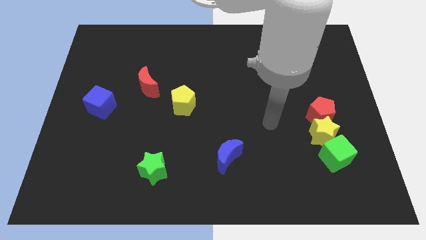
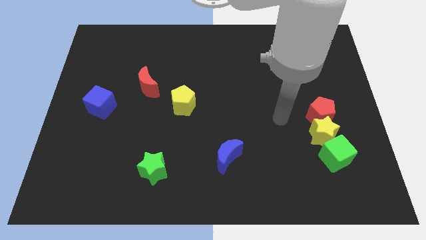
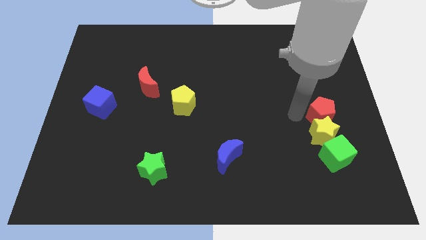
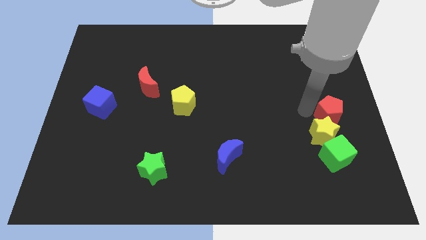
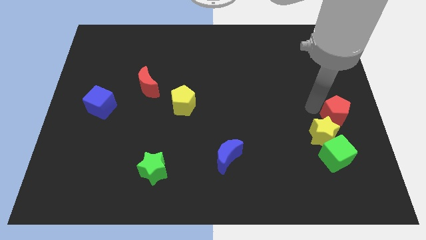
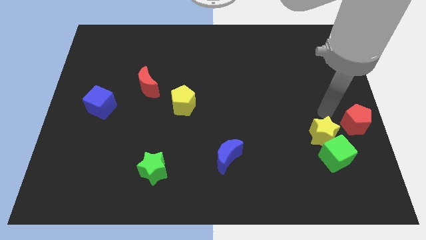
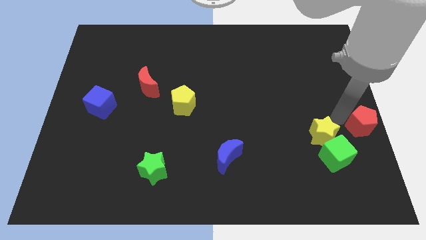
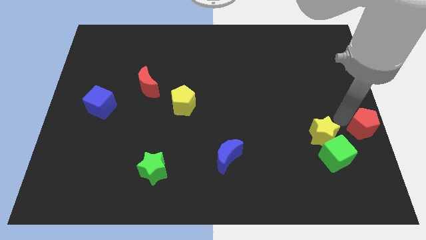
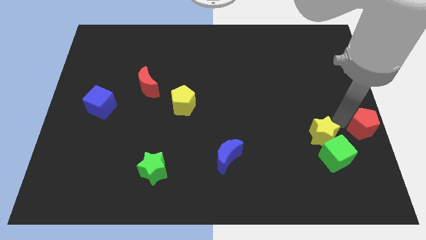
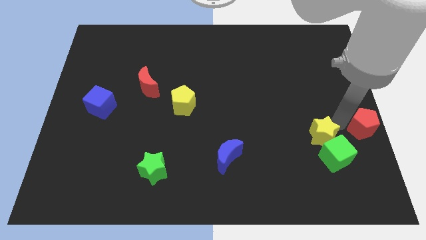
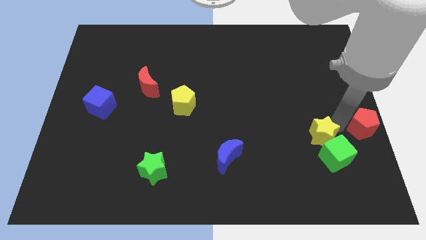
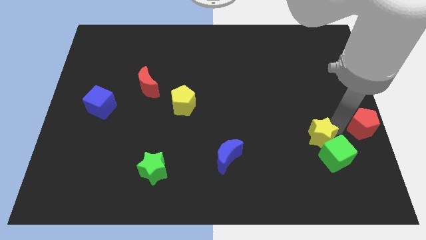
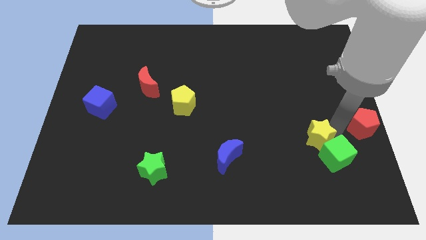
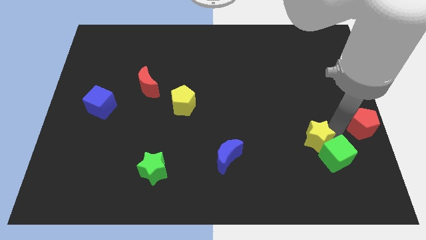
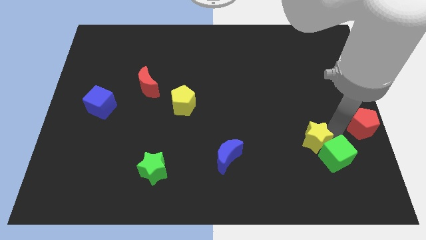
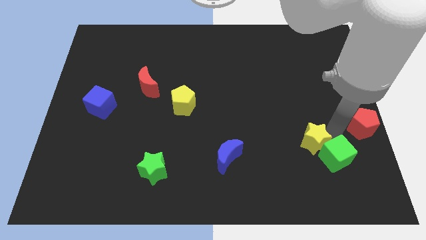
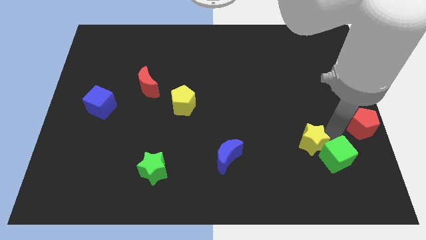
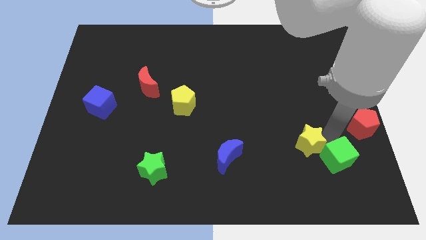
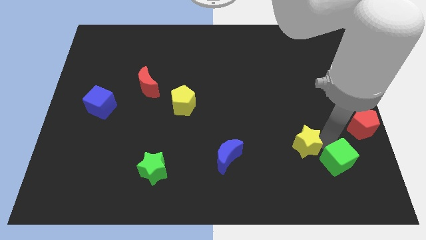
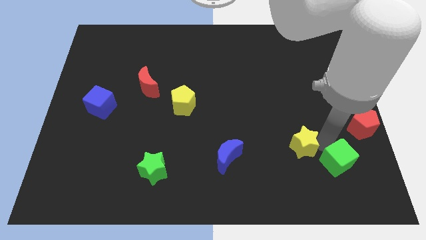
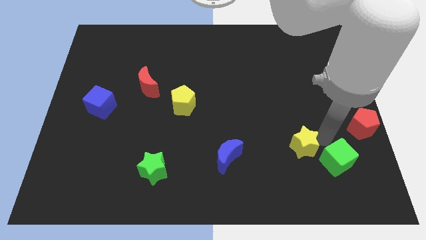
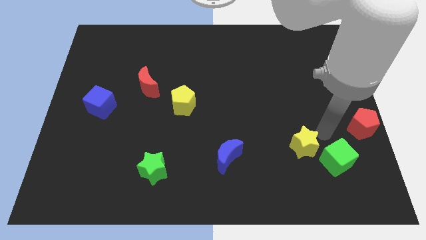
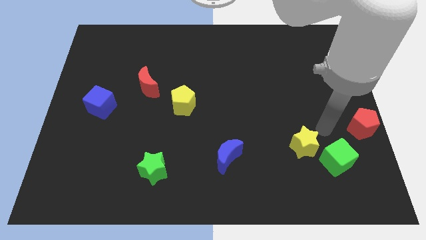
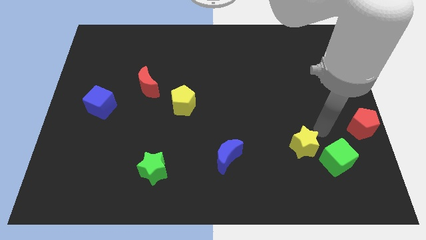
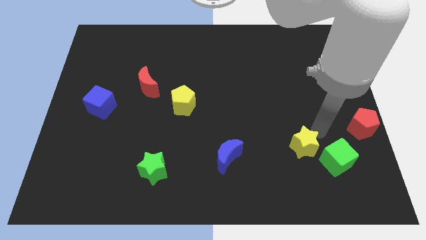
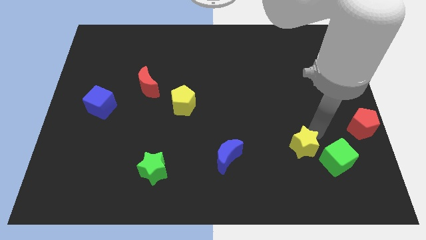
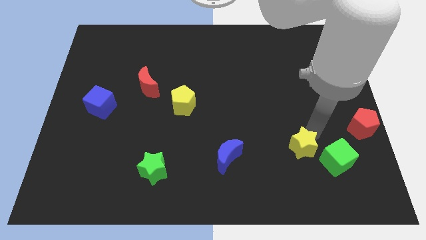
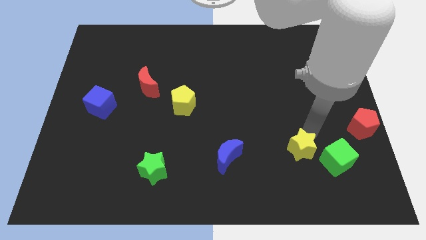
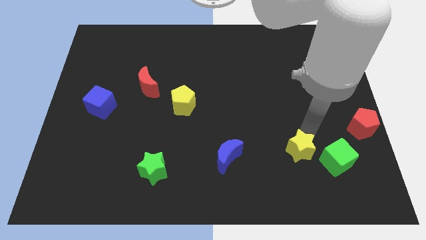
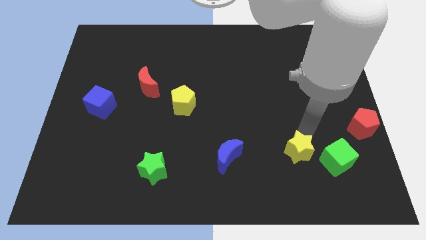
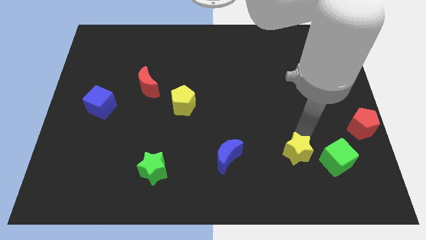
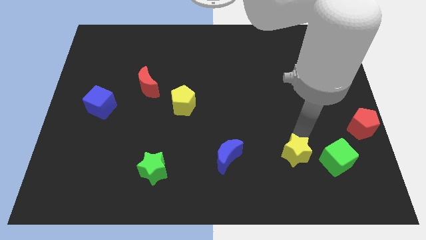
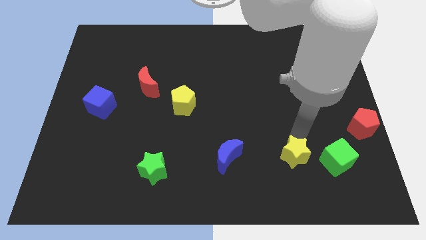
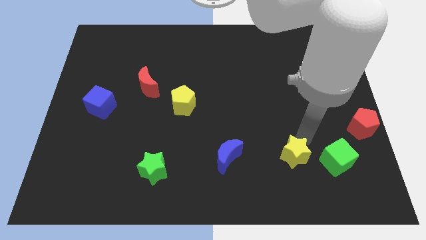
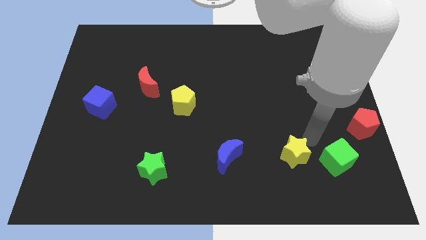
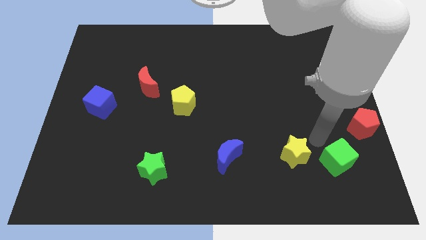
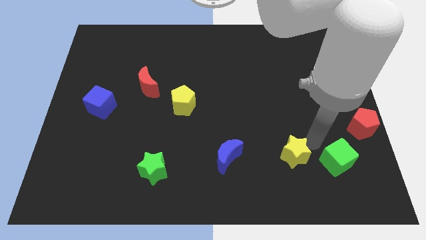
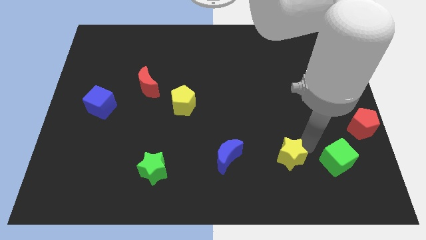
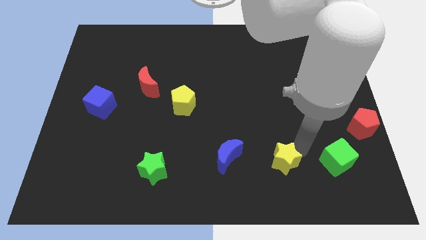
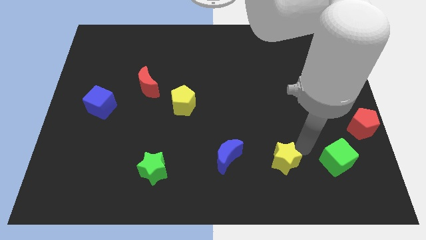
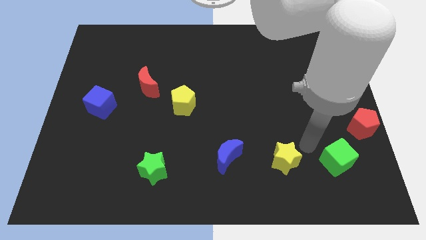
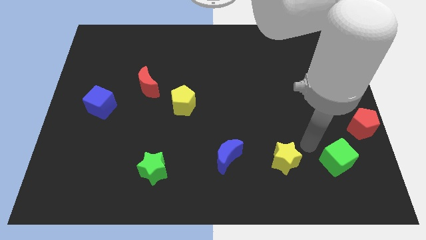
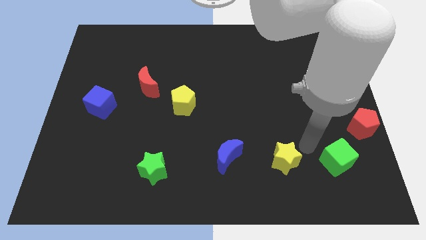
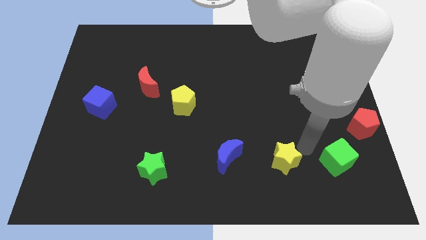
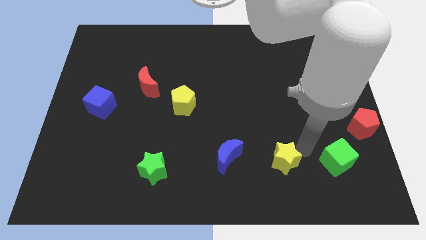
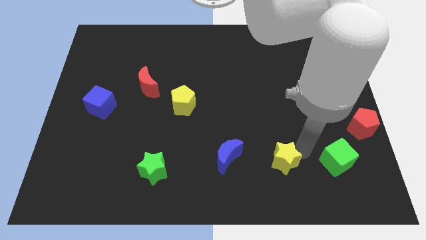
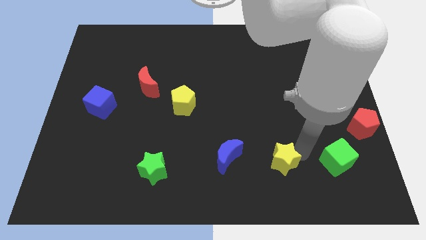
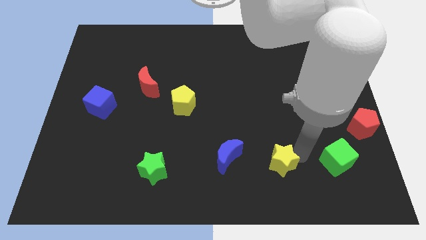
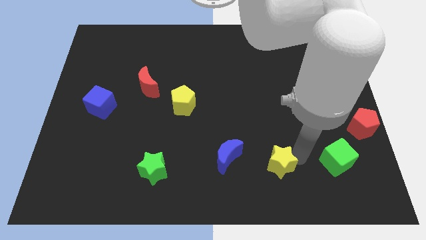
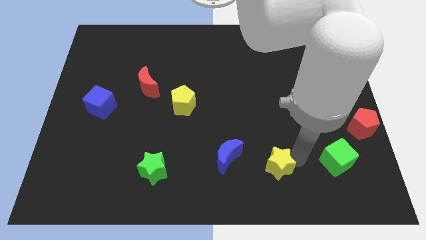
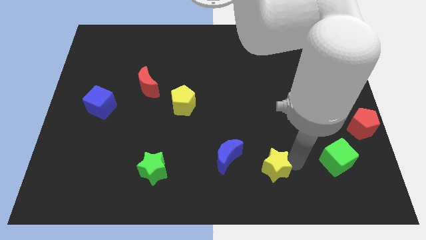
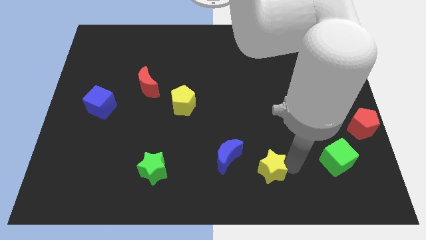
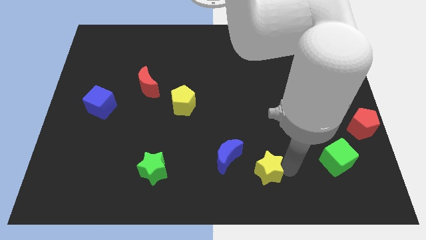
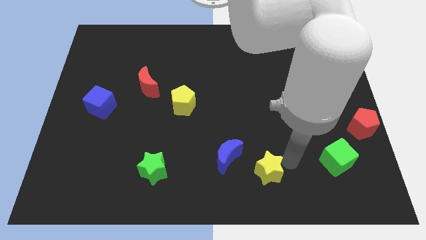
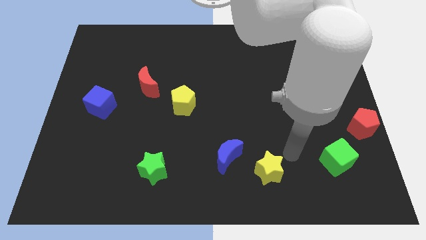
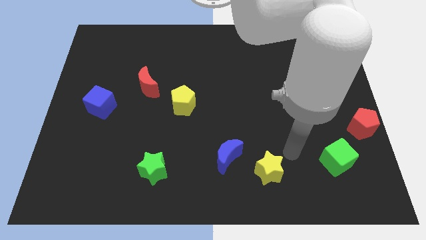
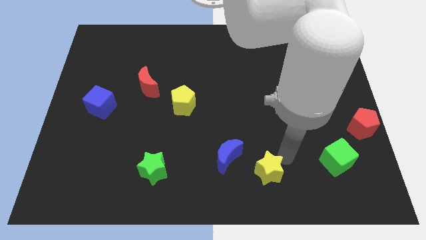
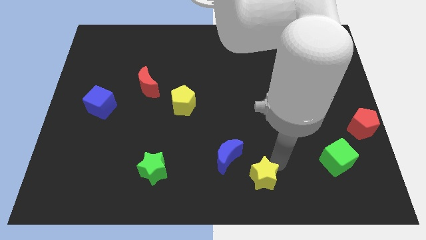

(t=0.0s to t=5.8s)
move the yellow star to the bottom

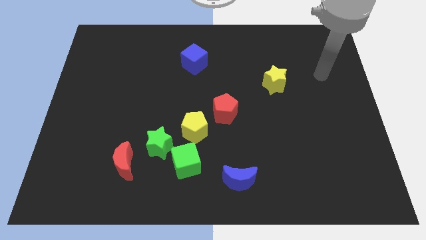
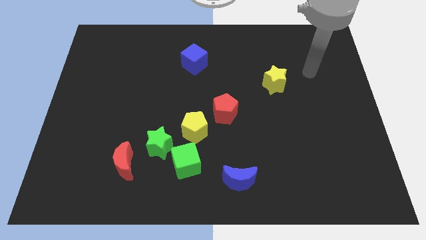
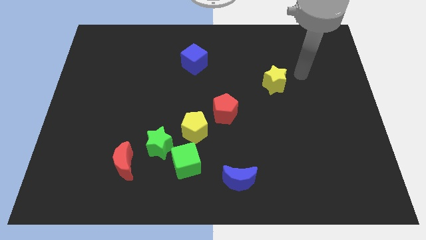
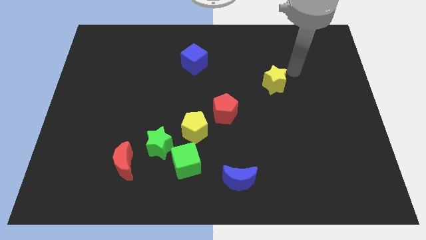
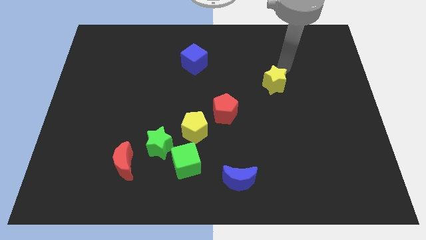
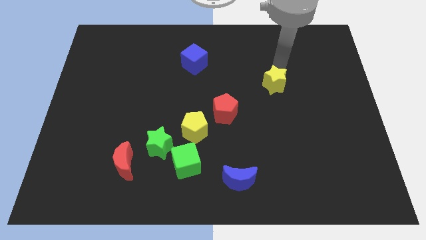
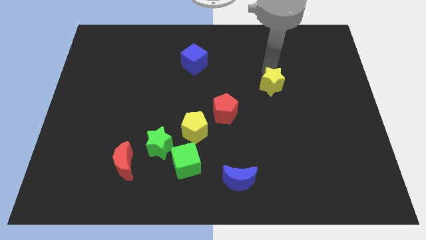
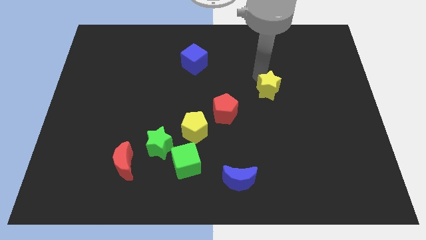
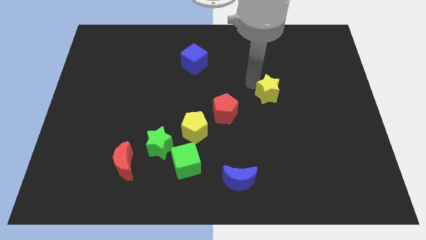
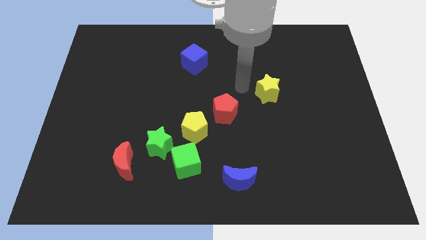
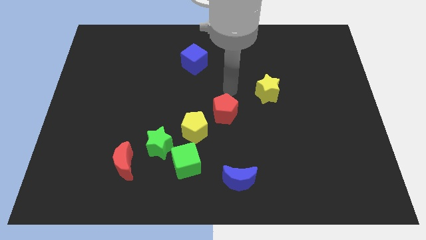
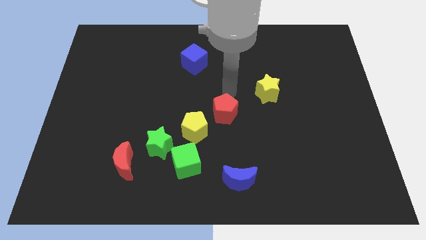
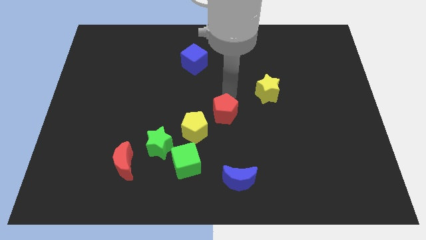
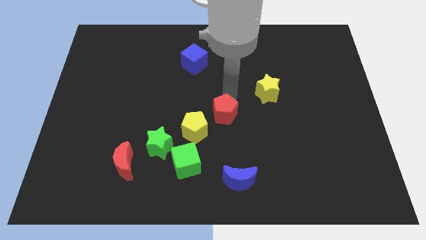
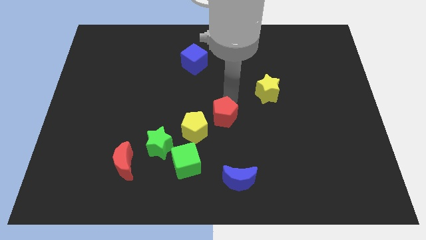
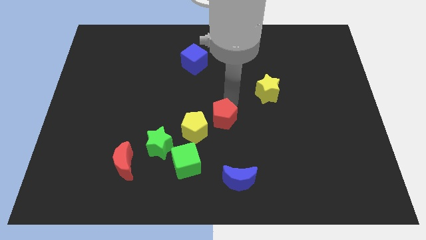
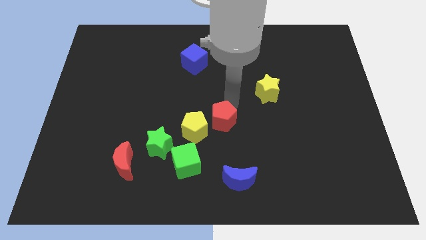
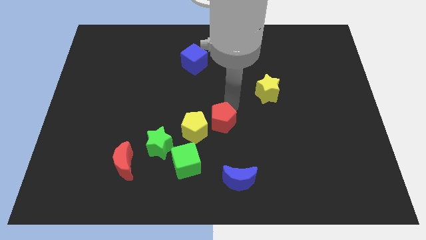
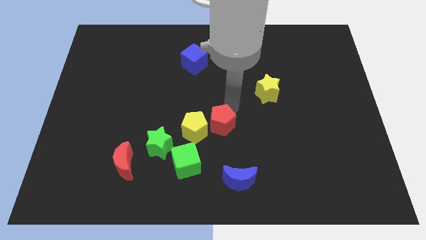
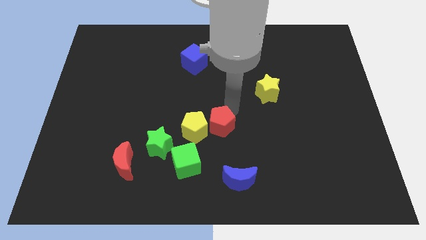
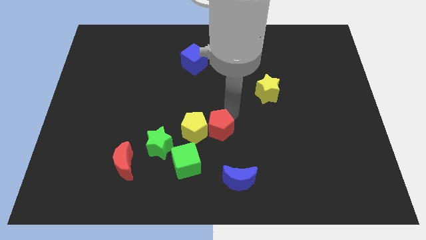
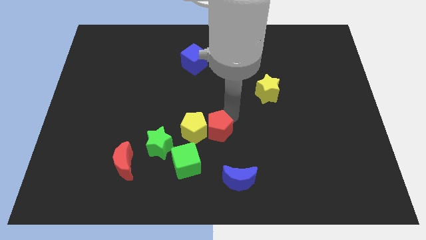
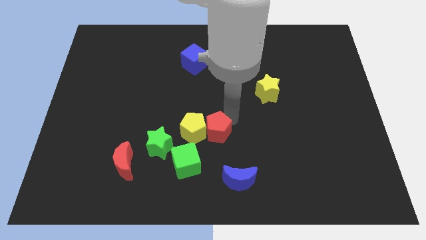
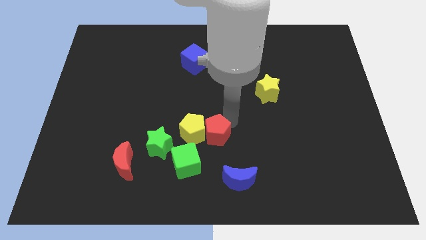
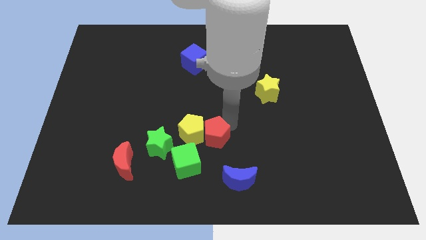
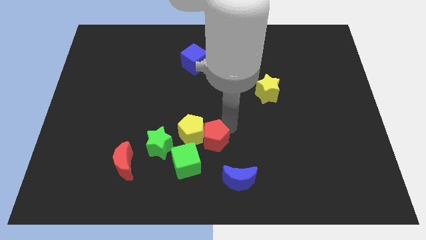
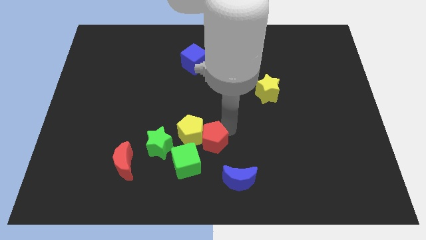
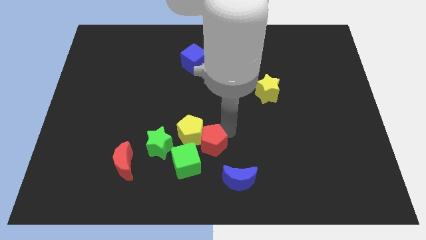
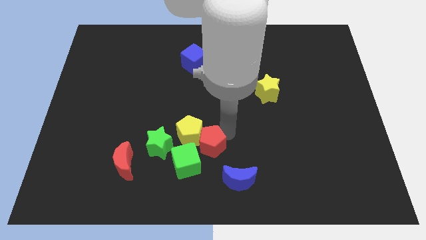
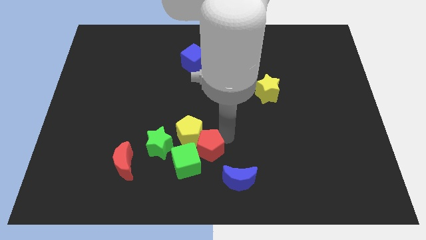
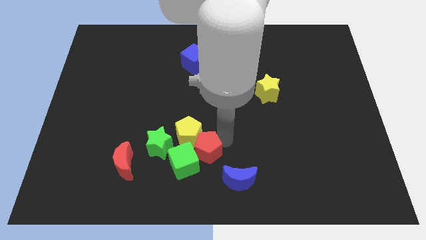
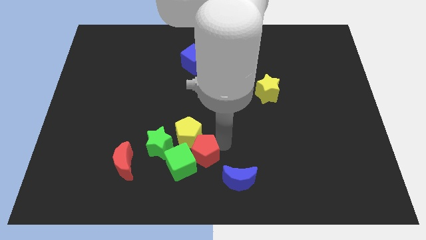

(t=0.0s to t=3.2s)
slide the red pentagon to the bottom side
